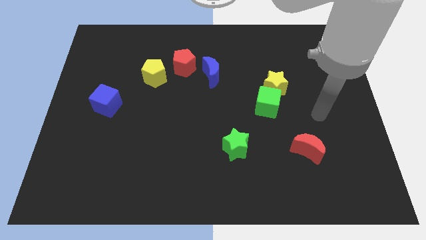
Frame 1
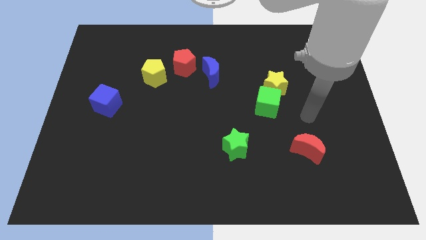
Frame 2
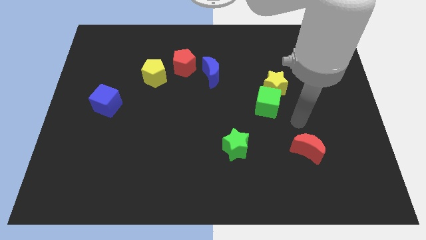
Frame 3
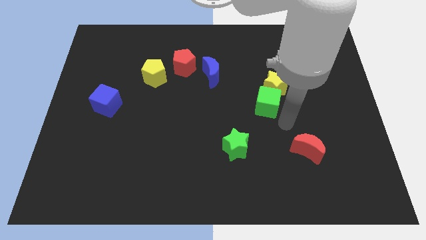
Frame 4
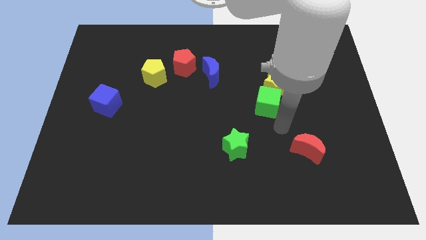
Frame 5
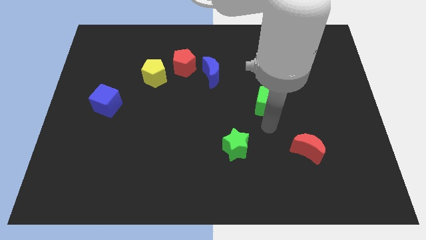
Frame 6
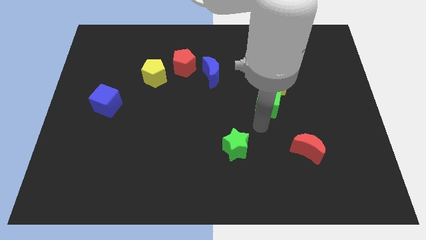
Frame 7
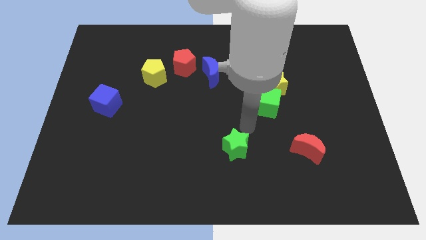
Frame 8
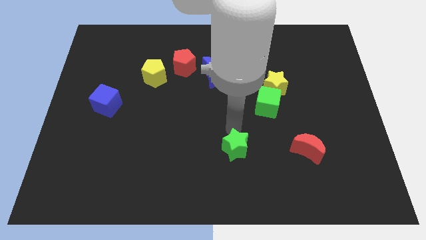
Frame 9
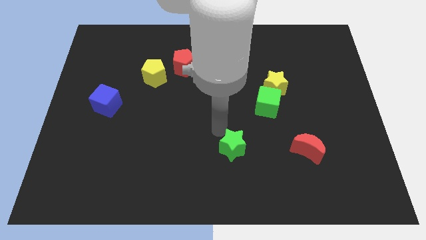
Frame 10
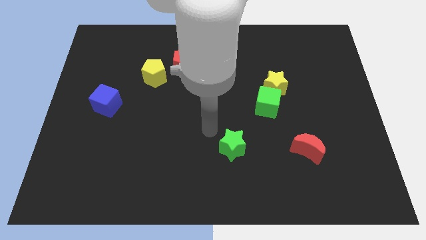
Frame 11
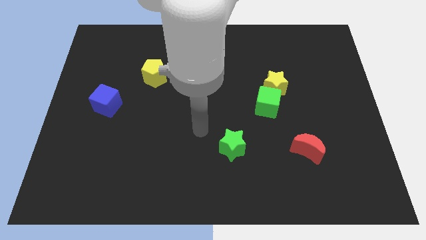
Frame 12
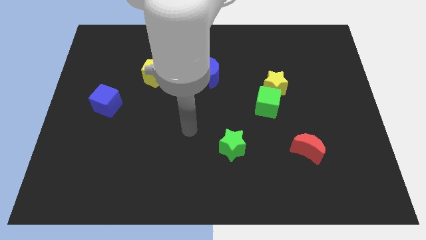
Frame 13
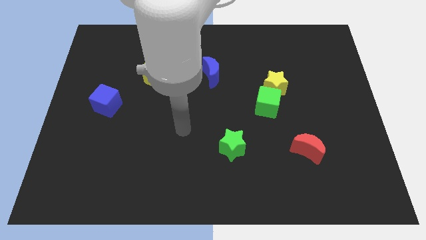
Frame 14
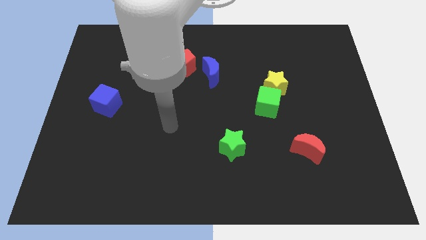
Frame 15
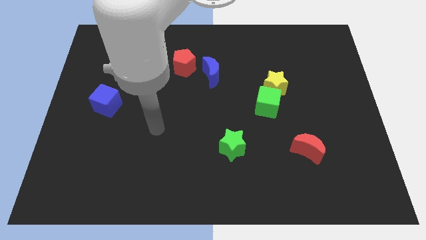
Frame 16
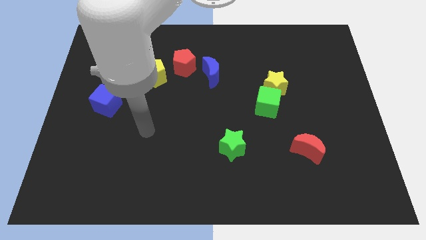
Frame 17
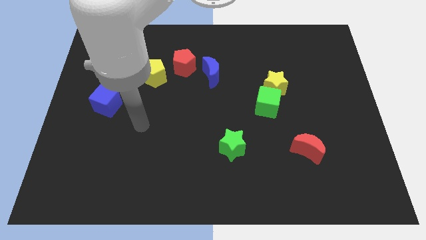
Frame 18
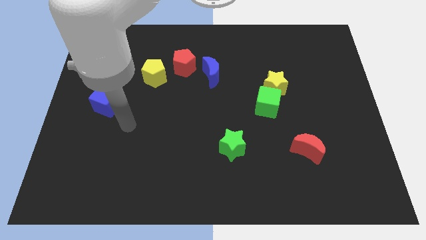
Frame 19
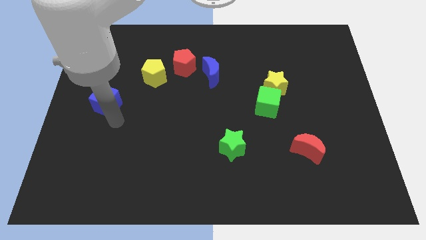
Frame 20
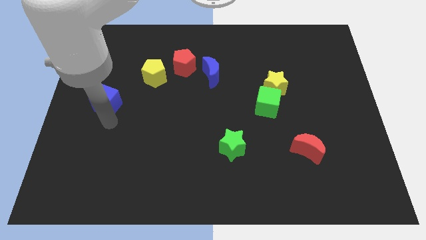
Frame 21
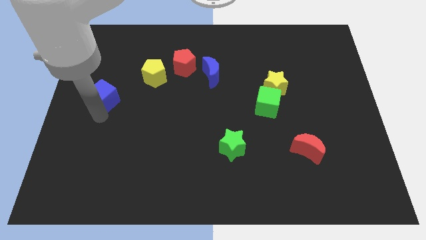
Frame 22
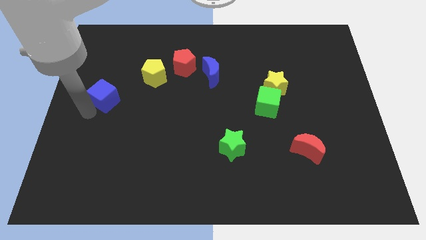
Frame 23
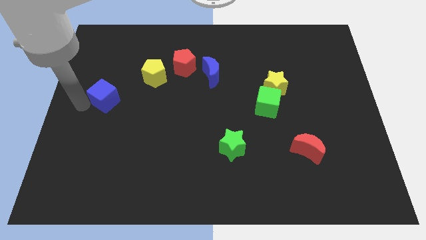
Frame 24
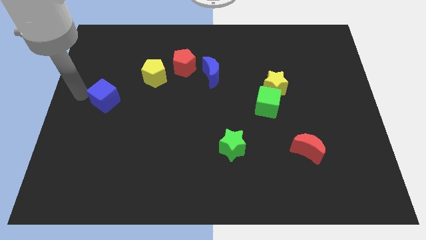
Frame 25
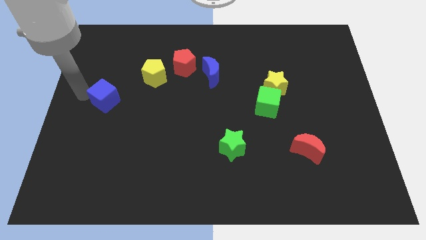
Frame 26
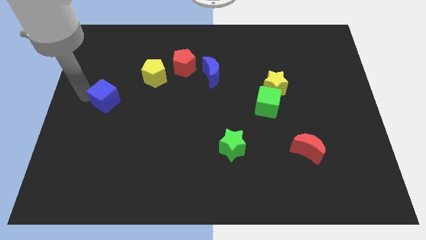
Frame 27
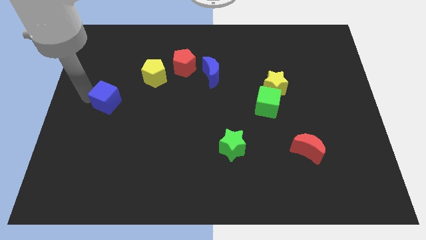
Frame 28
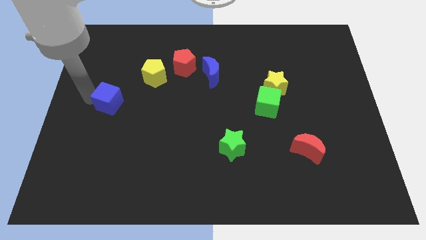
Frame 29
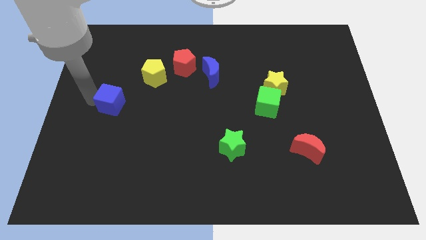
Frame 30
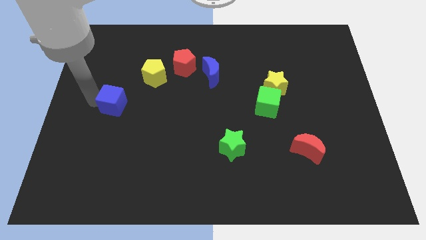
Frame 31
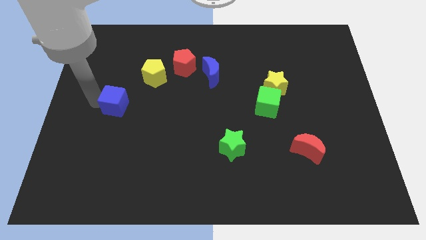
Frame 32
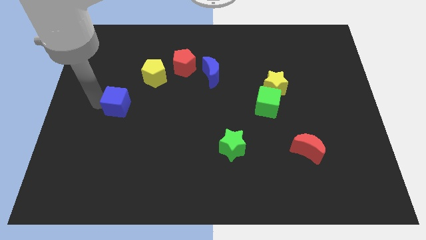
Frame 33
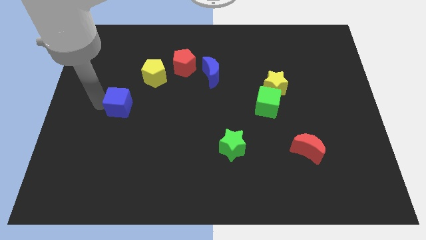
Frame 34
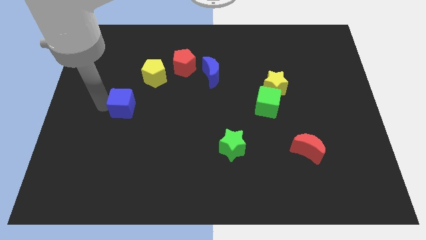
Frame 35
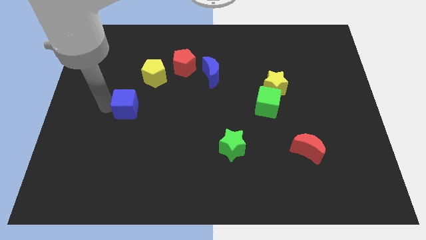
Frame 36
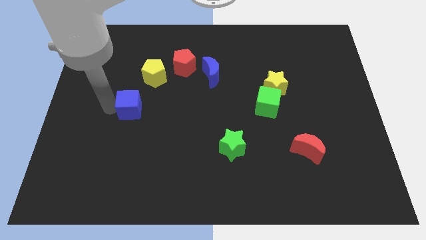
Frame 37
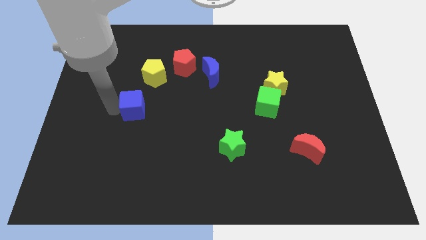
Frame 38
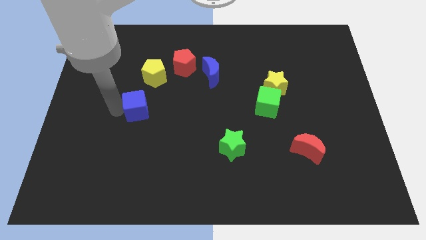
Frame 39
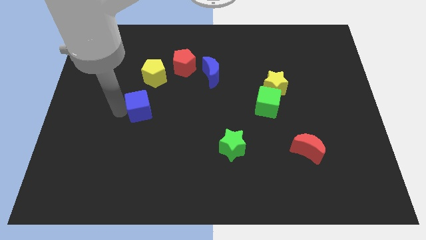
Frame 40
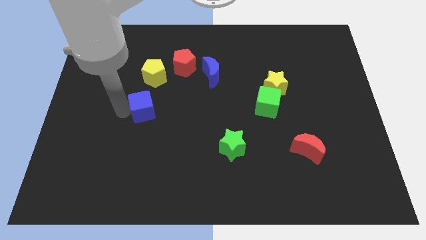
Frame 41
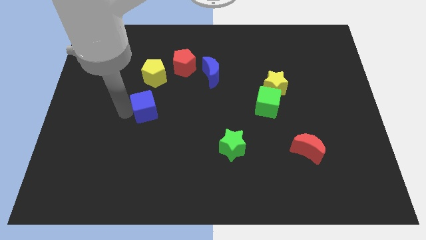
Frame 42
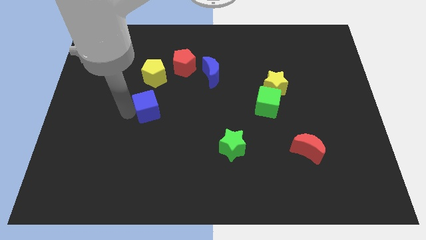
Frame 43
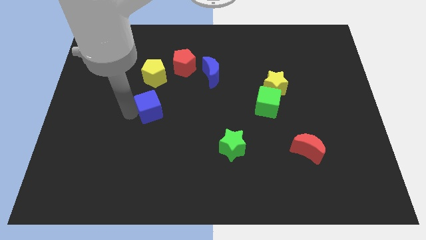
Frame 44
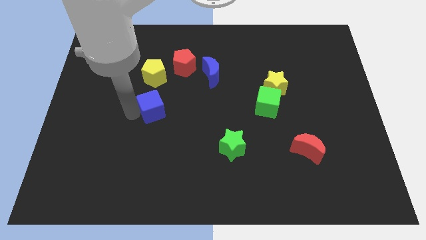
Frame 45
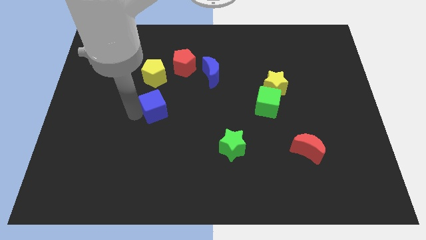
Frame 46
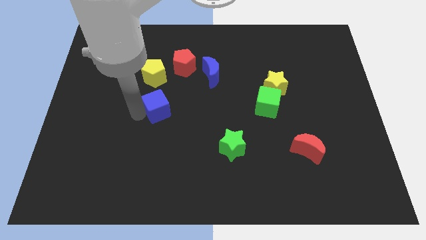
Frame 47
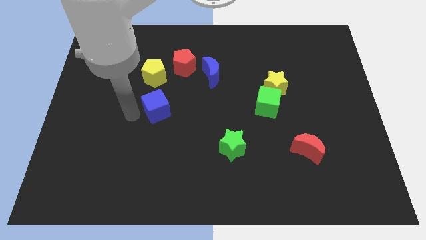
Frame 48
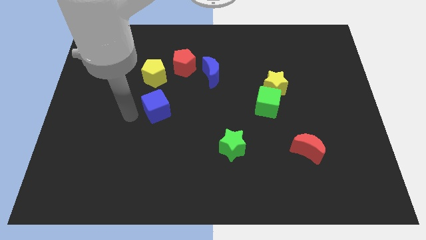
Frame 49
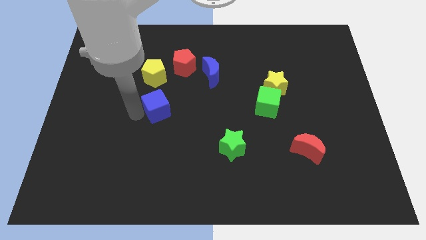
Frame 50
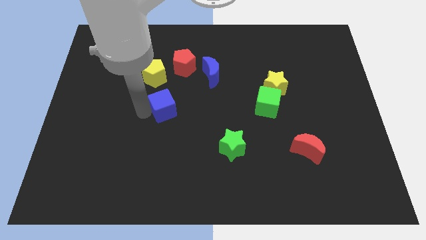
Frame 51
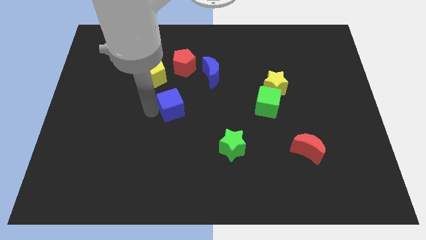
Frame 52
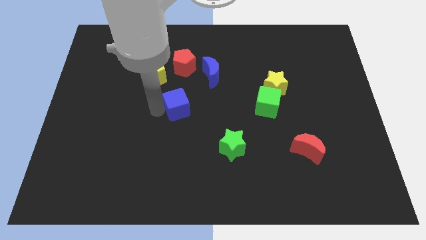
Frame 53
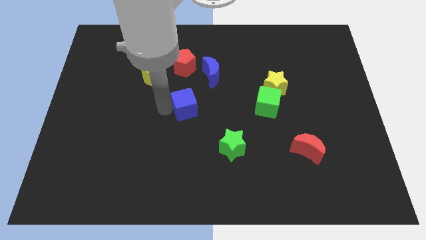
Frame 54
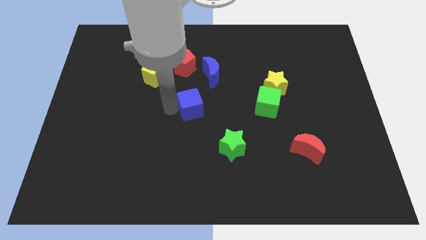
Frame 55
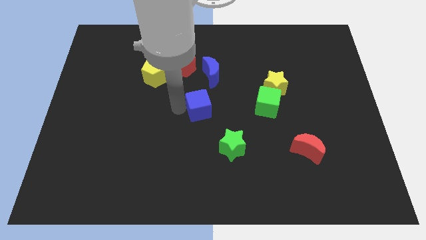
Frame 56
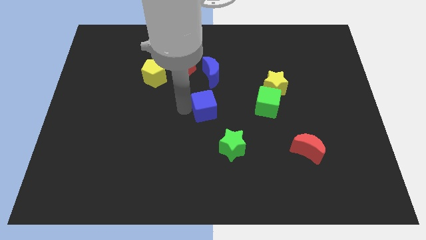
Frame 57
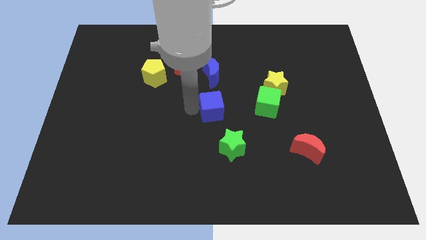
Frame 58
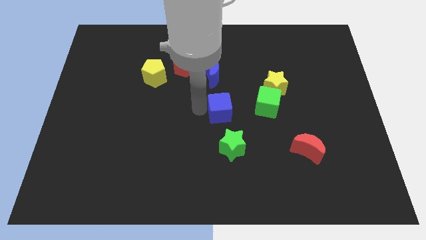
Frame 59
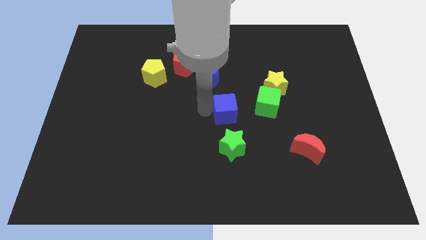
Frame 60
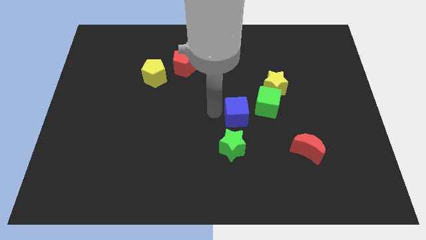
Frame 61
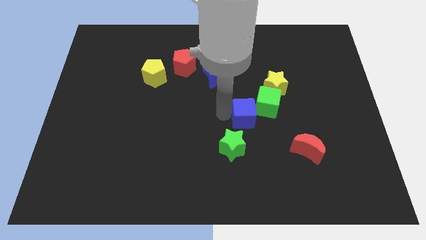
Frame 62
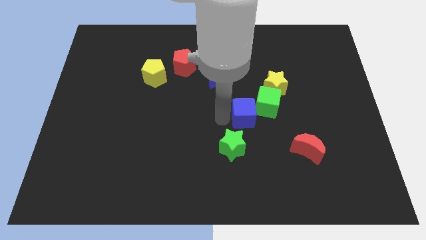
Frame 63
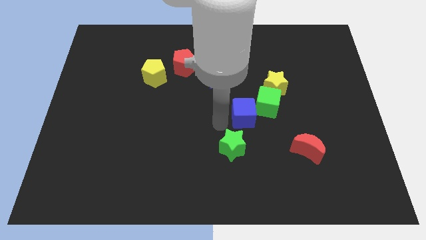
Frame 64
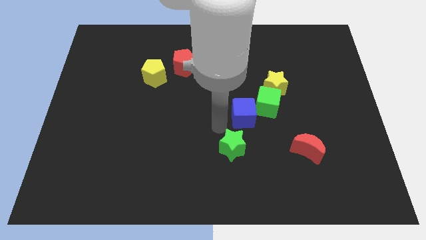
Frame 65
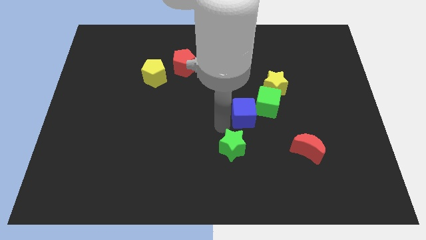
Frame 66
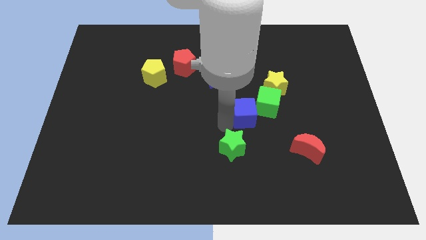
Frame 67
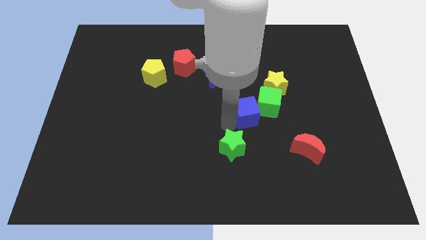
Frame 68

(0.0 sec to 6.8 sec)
put the blue cube close to the green cube
